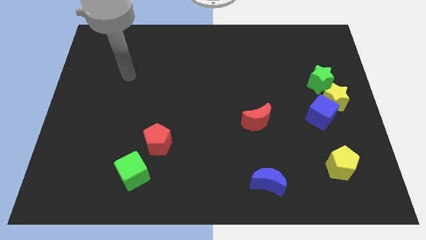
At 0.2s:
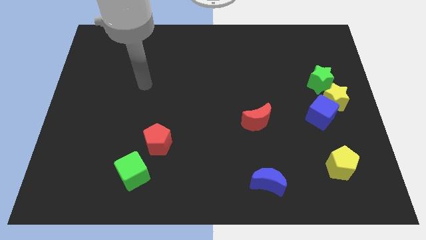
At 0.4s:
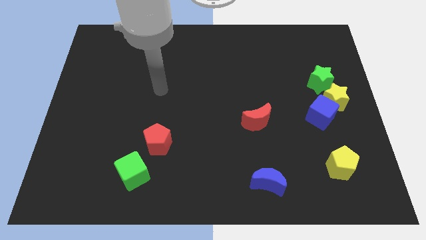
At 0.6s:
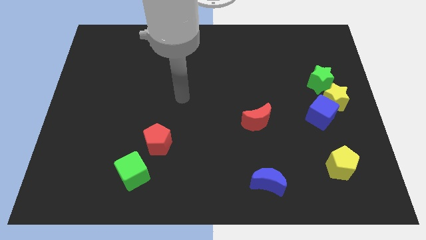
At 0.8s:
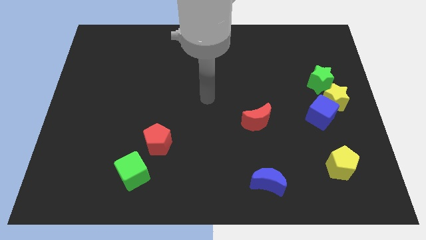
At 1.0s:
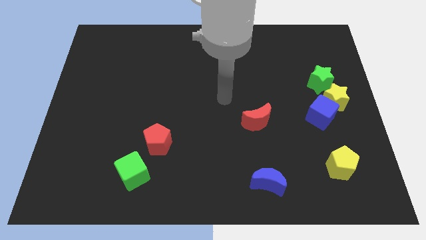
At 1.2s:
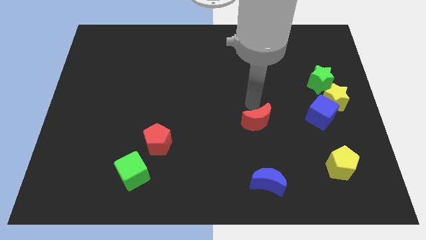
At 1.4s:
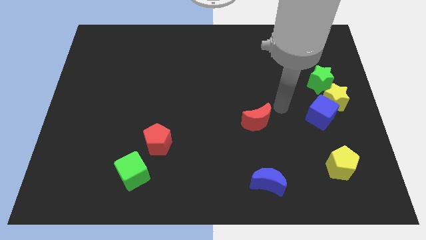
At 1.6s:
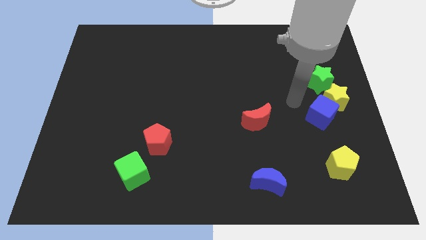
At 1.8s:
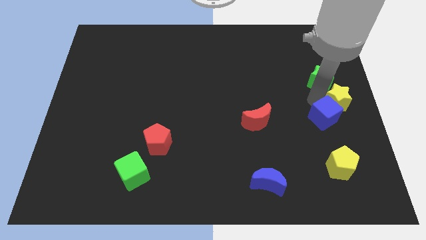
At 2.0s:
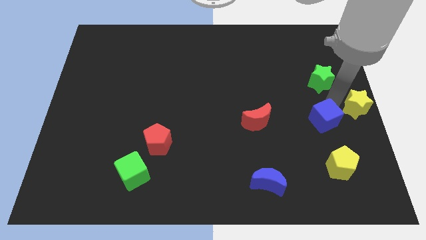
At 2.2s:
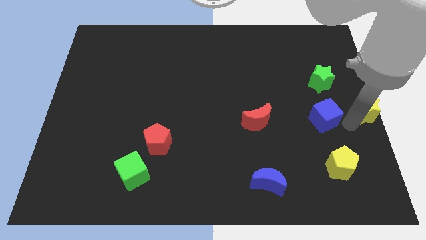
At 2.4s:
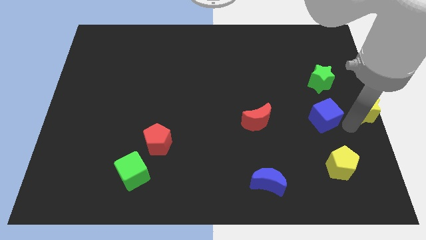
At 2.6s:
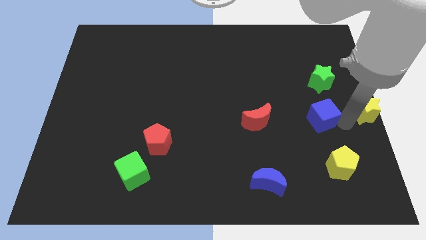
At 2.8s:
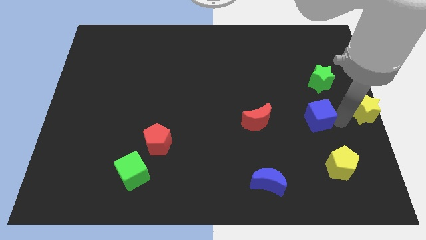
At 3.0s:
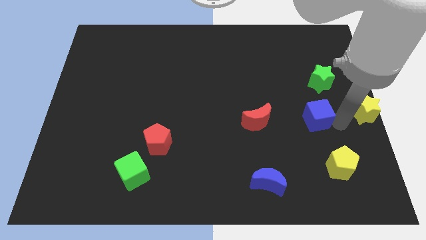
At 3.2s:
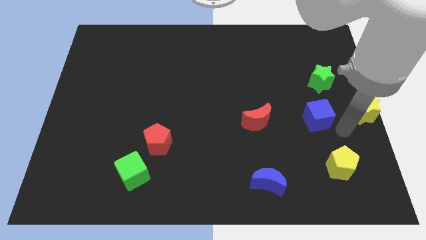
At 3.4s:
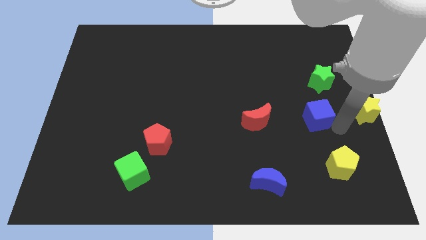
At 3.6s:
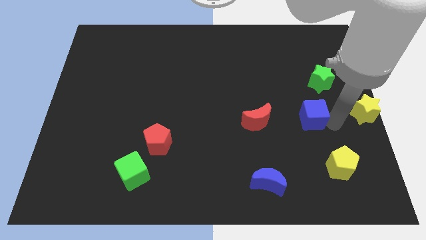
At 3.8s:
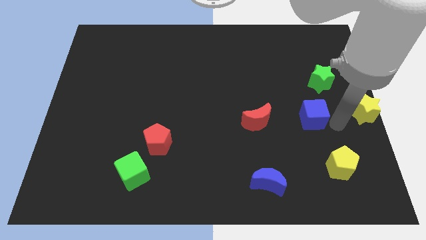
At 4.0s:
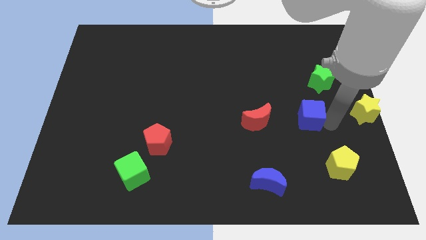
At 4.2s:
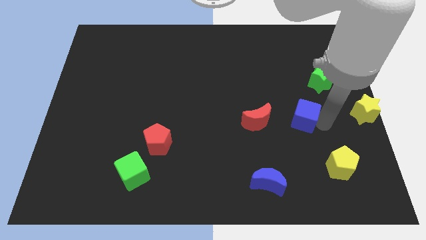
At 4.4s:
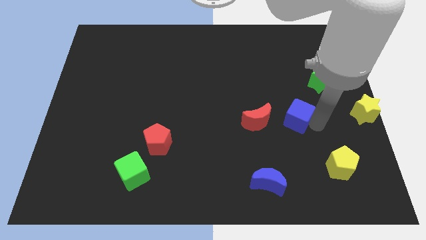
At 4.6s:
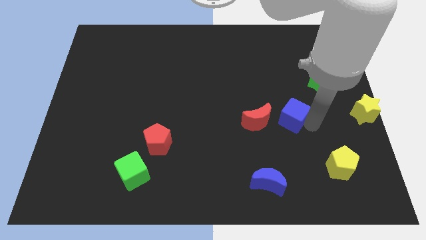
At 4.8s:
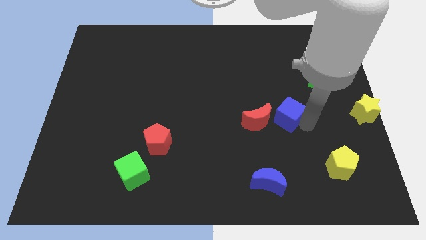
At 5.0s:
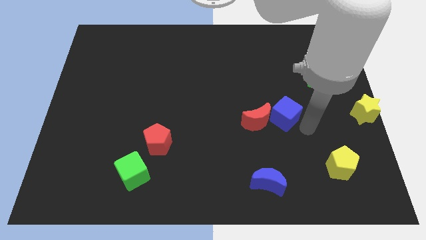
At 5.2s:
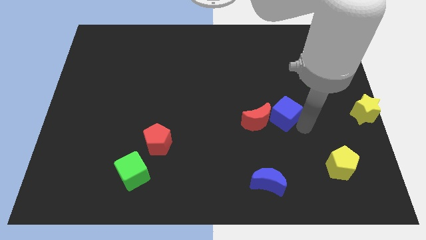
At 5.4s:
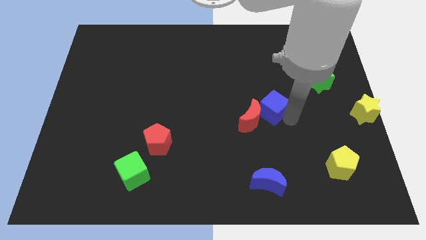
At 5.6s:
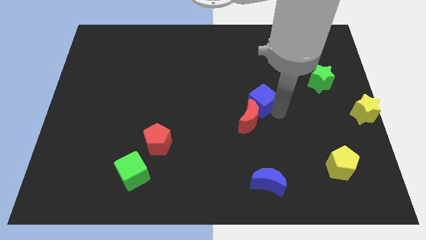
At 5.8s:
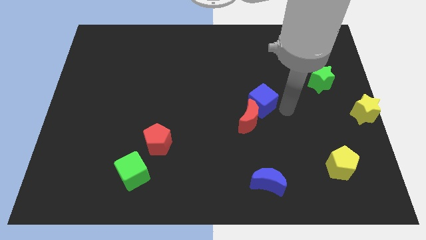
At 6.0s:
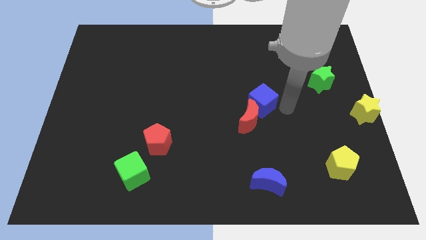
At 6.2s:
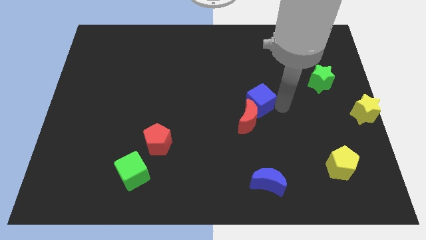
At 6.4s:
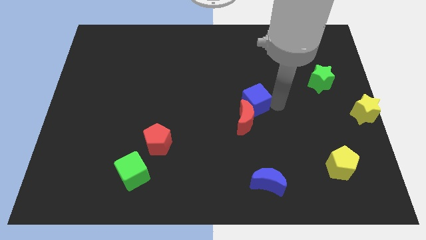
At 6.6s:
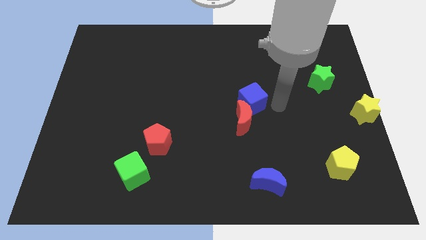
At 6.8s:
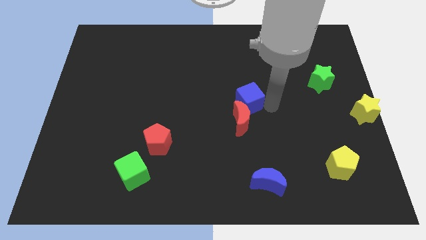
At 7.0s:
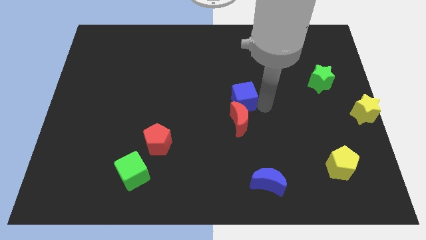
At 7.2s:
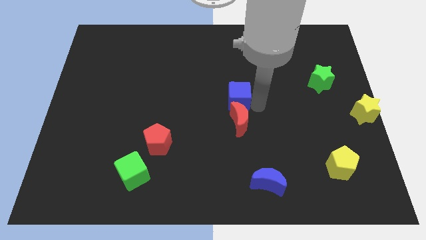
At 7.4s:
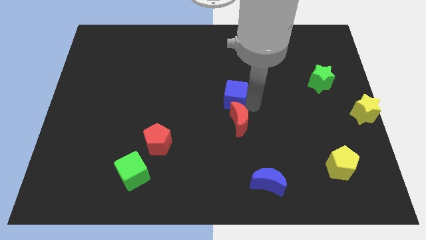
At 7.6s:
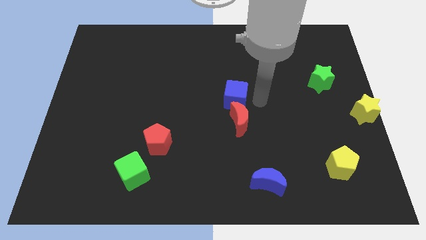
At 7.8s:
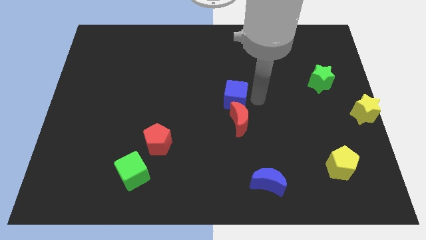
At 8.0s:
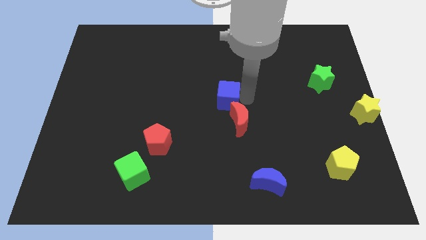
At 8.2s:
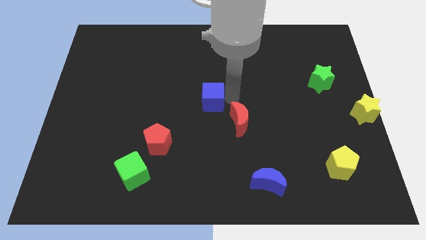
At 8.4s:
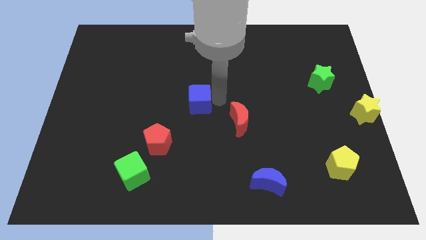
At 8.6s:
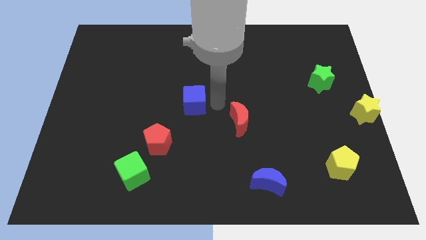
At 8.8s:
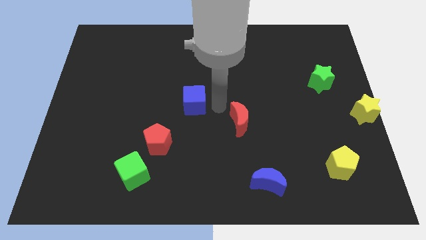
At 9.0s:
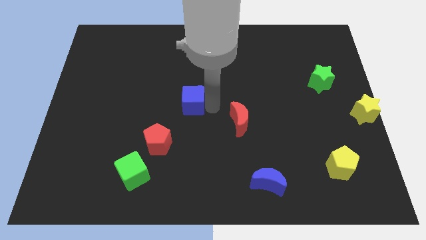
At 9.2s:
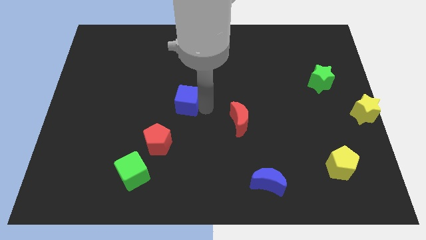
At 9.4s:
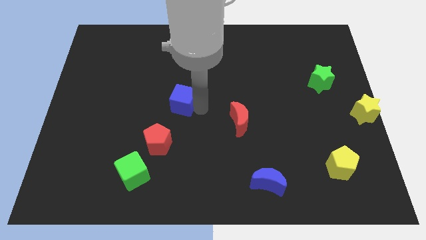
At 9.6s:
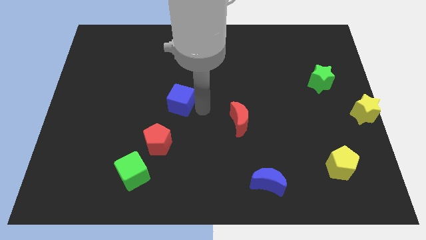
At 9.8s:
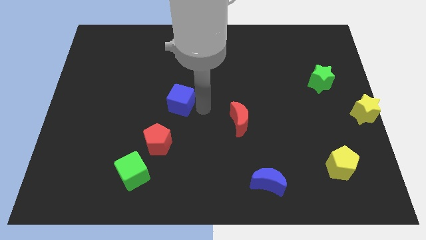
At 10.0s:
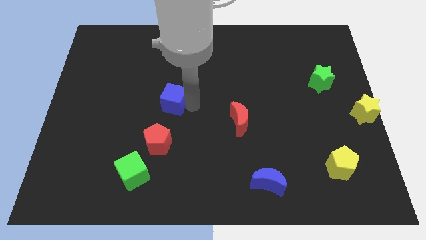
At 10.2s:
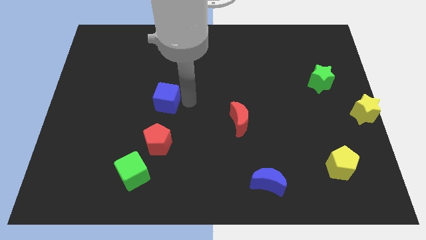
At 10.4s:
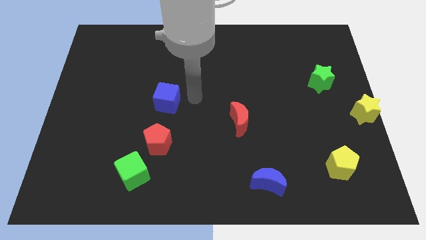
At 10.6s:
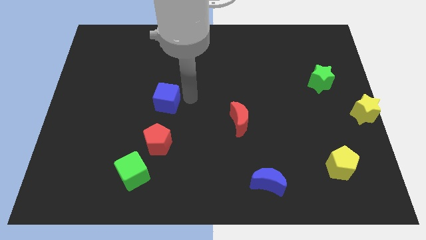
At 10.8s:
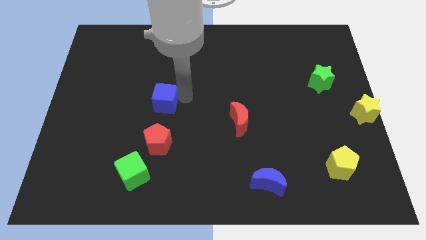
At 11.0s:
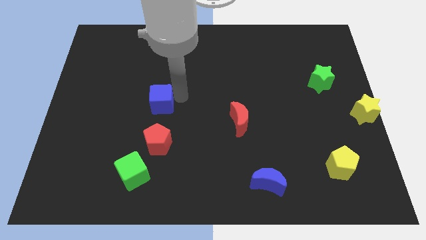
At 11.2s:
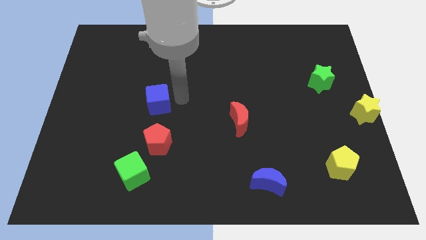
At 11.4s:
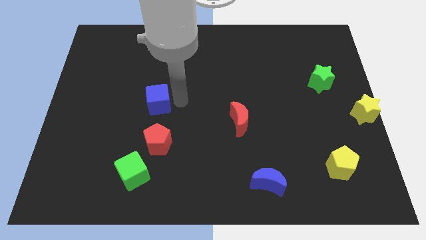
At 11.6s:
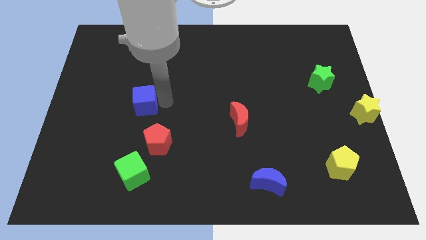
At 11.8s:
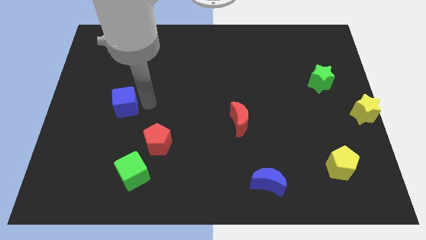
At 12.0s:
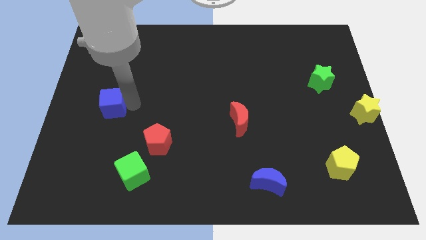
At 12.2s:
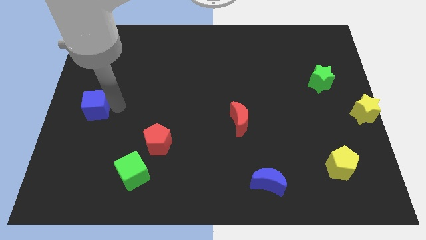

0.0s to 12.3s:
move the blue cube to the left side
